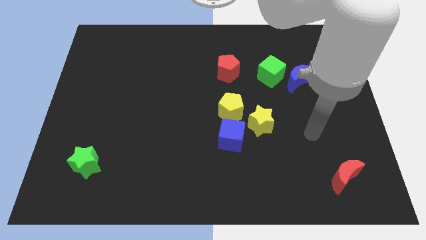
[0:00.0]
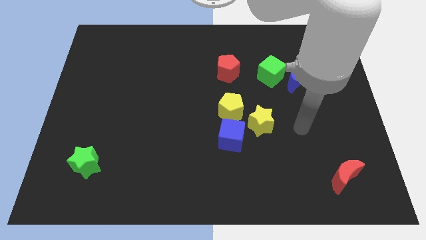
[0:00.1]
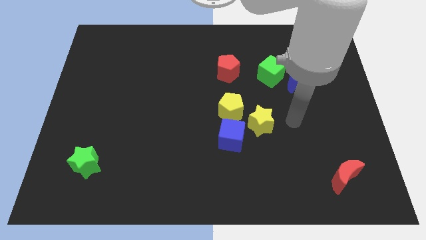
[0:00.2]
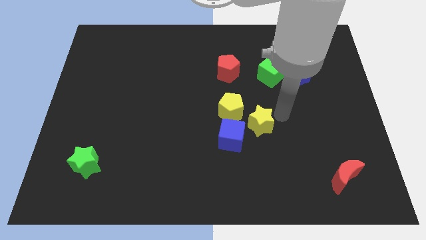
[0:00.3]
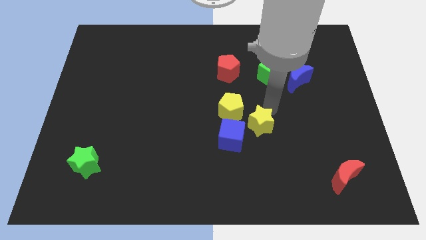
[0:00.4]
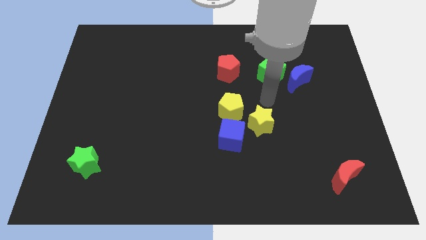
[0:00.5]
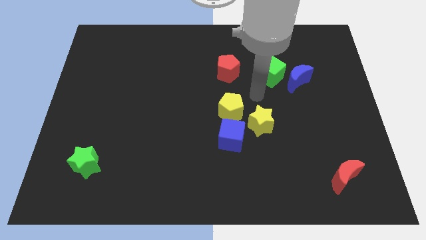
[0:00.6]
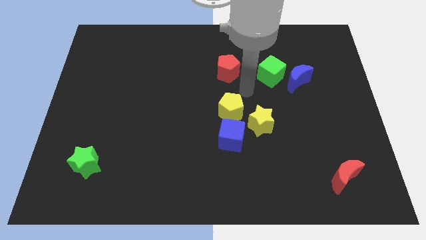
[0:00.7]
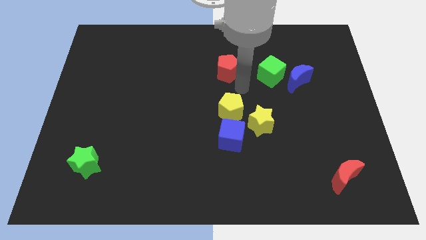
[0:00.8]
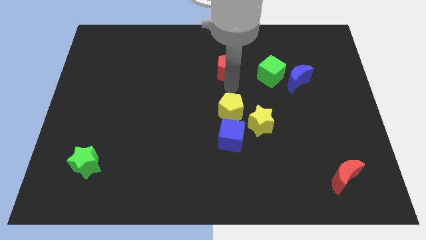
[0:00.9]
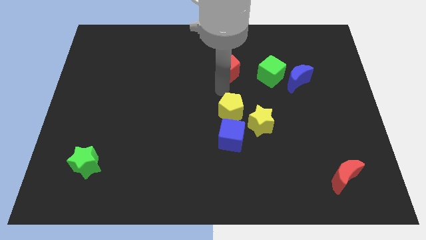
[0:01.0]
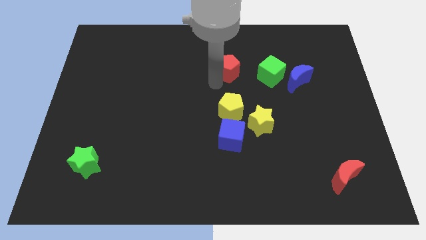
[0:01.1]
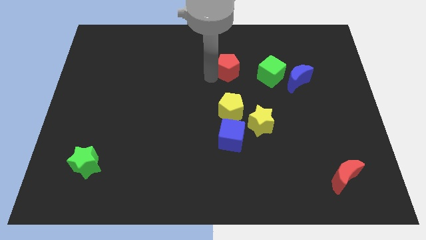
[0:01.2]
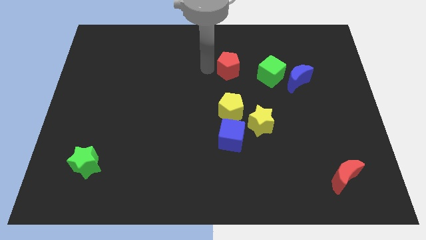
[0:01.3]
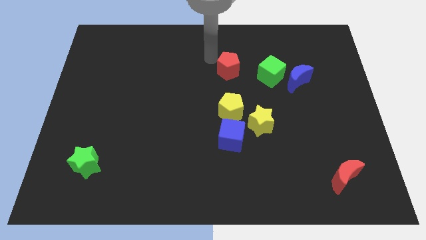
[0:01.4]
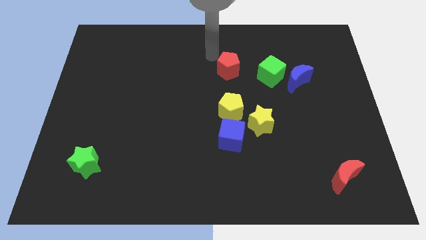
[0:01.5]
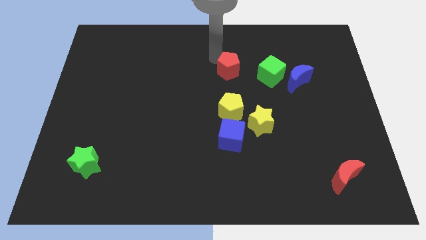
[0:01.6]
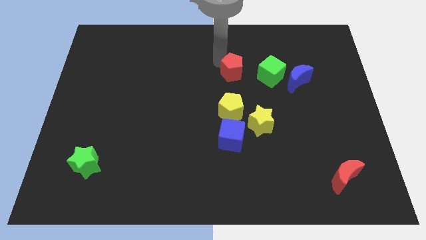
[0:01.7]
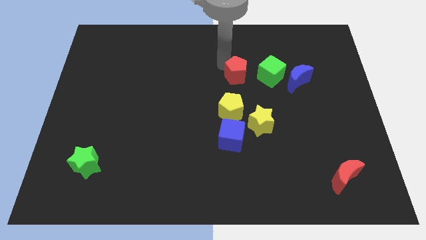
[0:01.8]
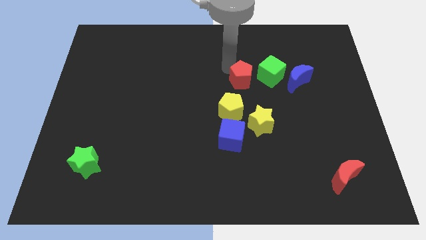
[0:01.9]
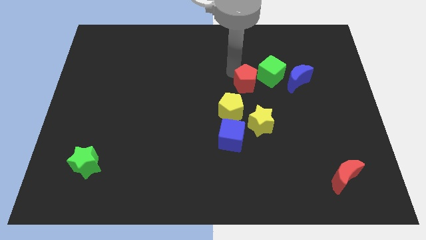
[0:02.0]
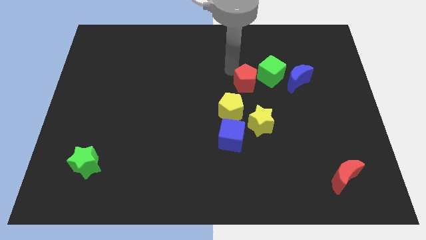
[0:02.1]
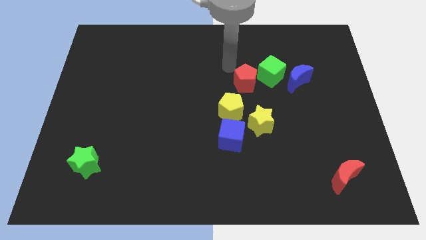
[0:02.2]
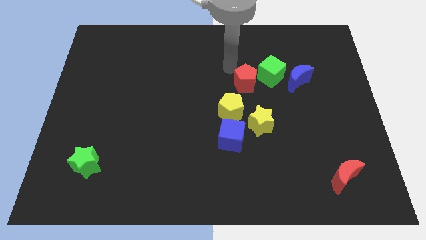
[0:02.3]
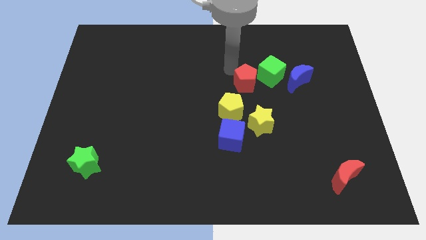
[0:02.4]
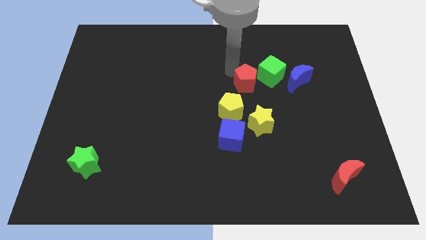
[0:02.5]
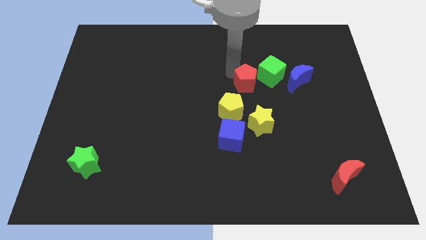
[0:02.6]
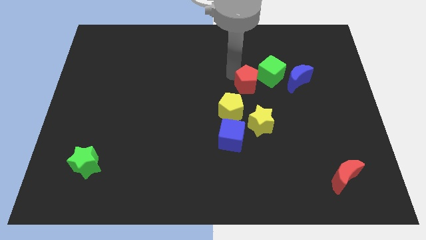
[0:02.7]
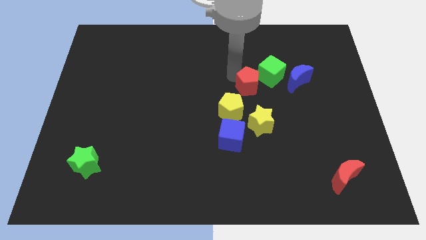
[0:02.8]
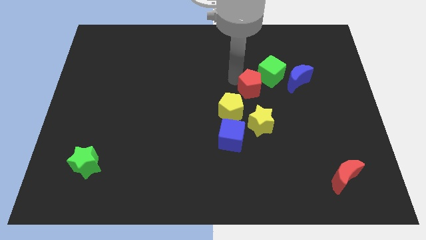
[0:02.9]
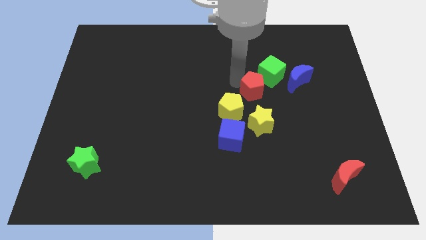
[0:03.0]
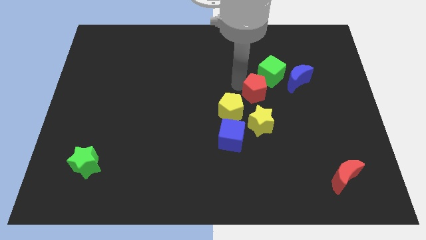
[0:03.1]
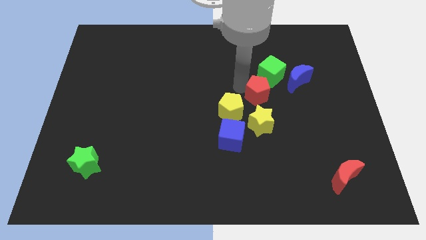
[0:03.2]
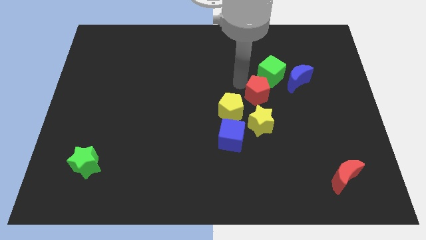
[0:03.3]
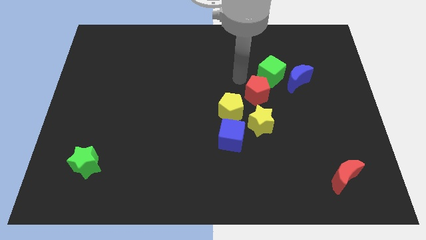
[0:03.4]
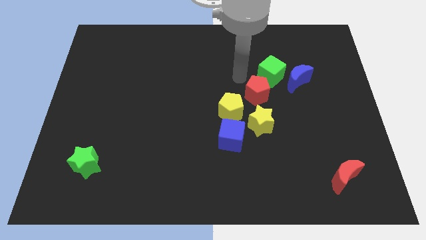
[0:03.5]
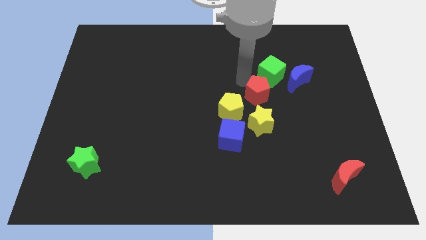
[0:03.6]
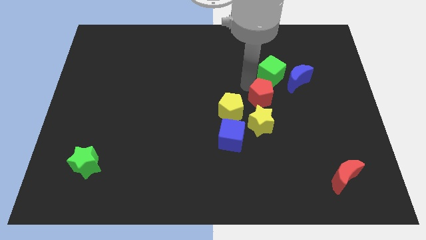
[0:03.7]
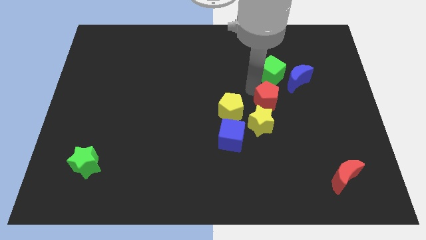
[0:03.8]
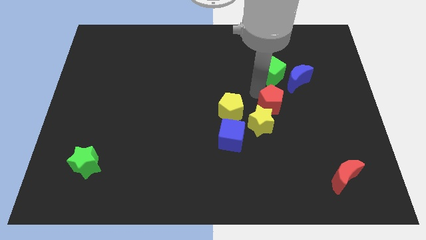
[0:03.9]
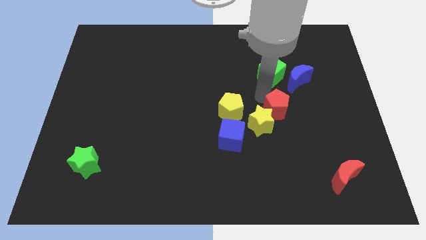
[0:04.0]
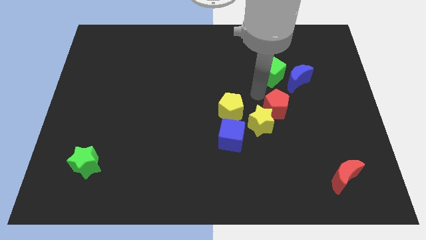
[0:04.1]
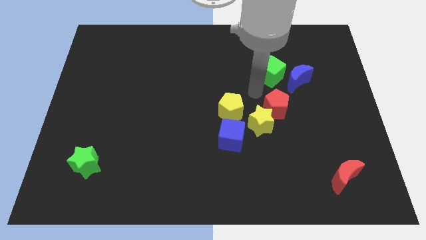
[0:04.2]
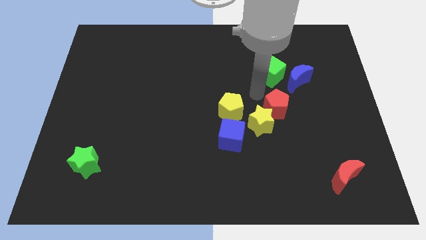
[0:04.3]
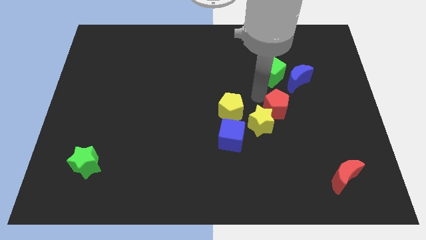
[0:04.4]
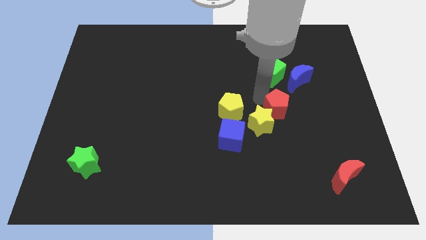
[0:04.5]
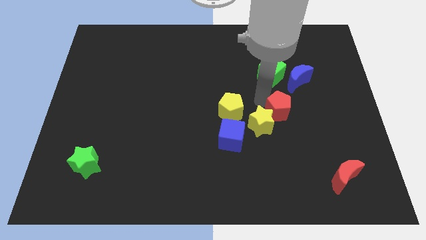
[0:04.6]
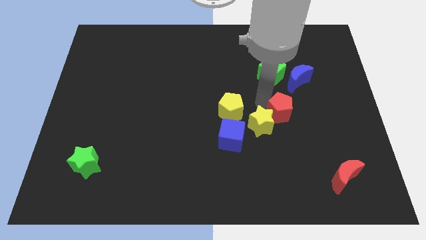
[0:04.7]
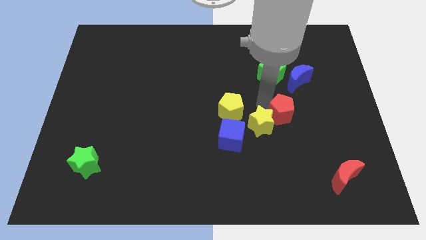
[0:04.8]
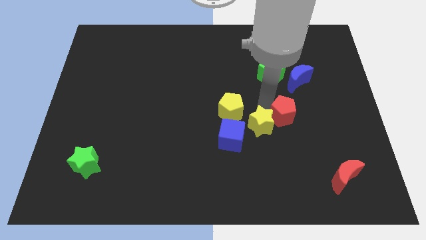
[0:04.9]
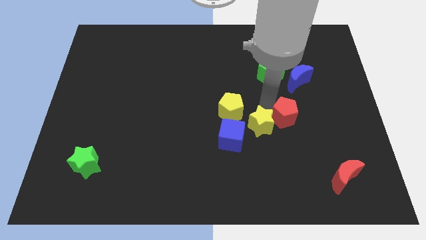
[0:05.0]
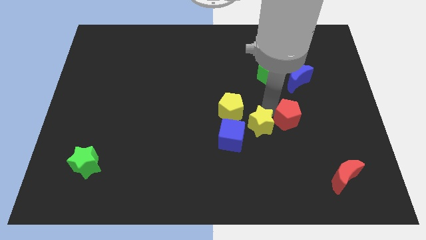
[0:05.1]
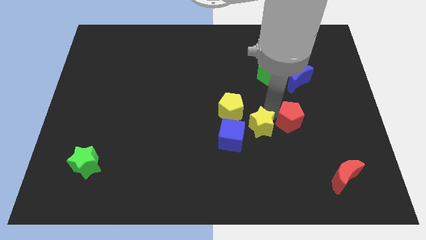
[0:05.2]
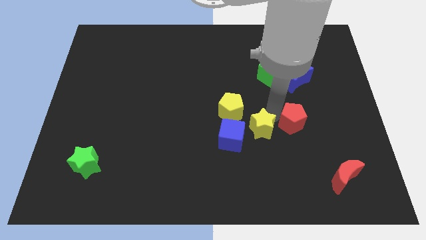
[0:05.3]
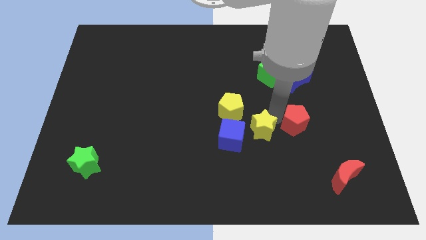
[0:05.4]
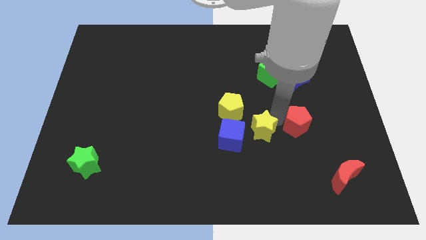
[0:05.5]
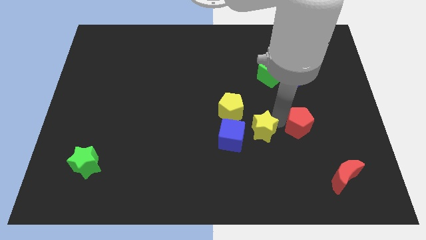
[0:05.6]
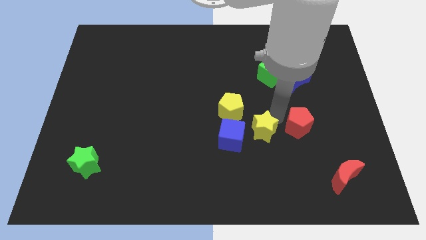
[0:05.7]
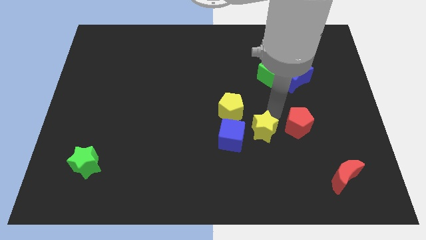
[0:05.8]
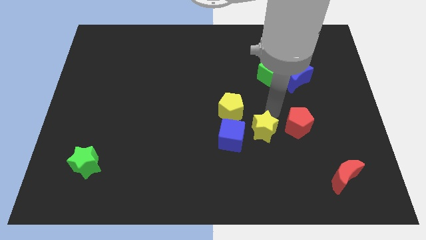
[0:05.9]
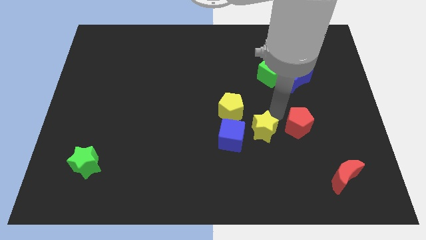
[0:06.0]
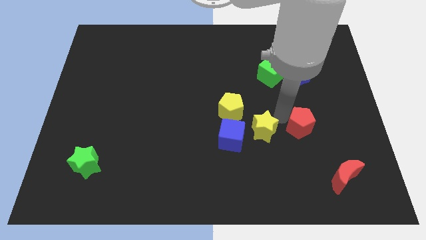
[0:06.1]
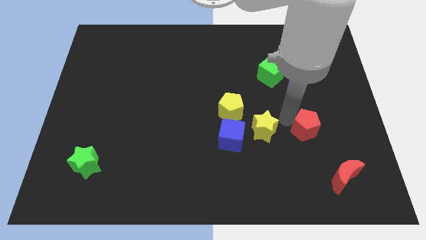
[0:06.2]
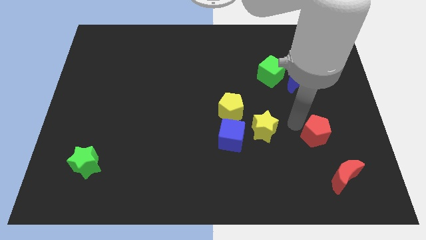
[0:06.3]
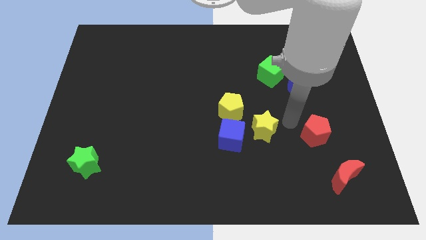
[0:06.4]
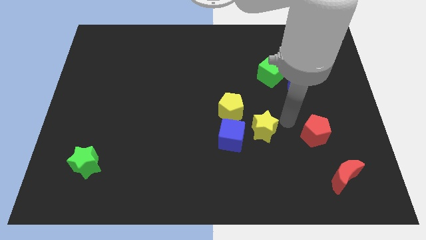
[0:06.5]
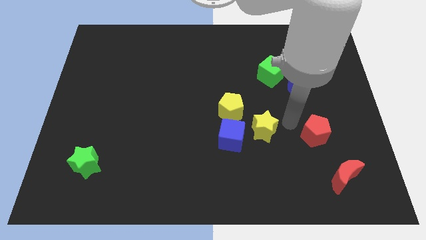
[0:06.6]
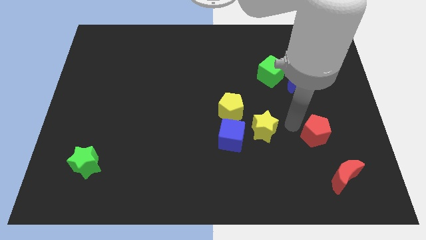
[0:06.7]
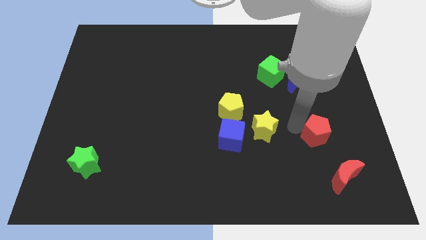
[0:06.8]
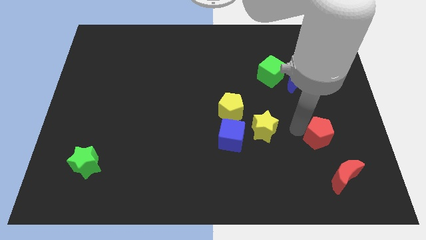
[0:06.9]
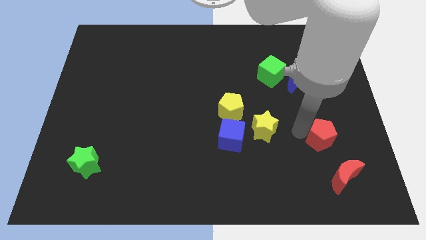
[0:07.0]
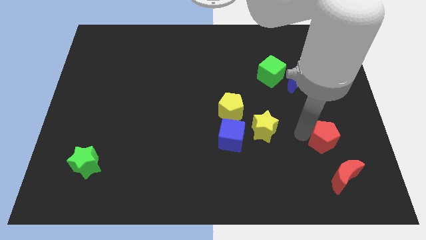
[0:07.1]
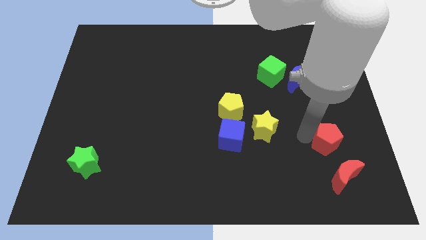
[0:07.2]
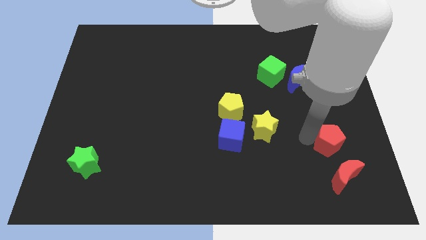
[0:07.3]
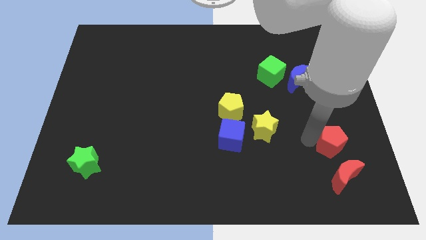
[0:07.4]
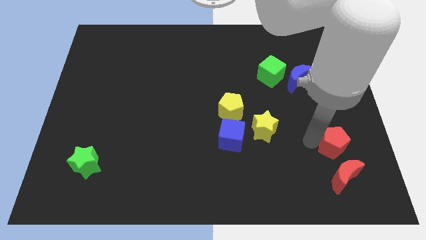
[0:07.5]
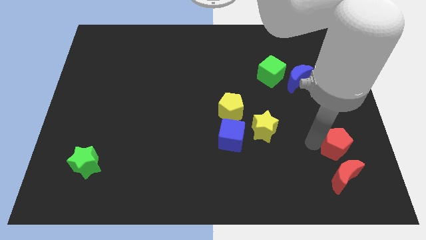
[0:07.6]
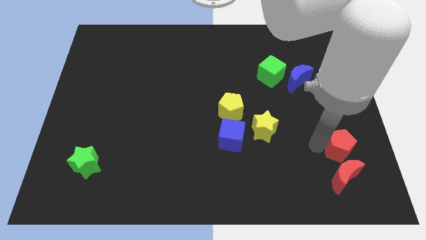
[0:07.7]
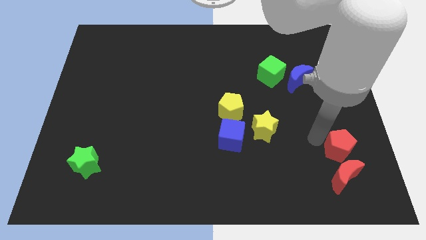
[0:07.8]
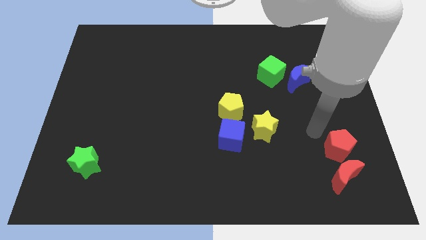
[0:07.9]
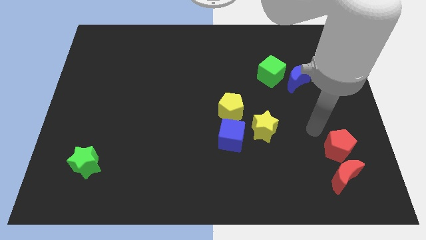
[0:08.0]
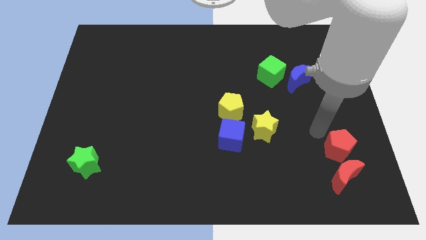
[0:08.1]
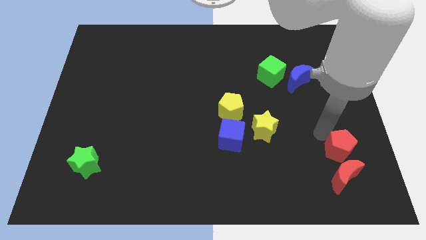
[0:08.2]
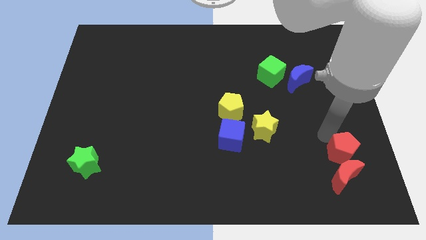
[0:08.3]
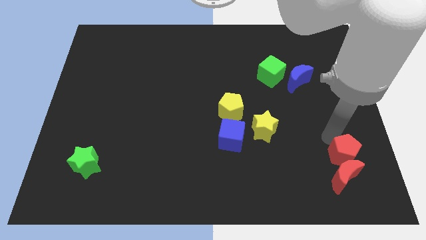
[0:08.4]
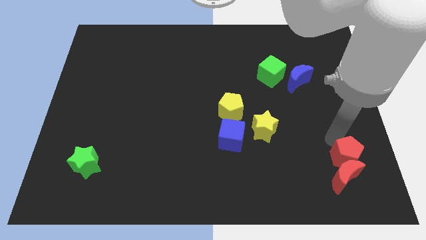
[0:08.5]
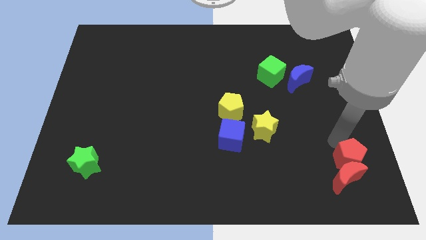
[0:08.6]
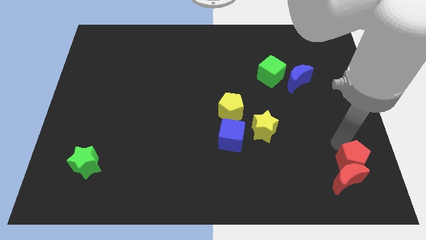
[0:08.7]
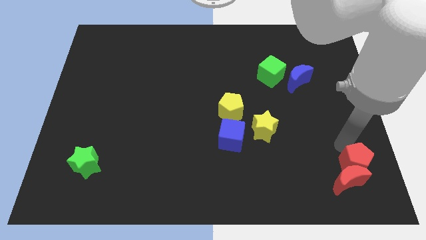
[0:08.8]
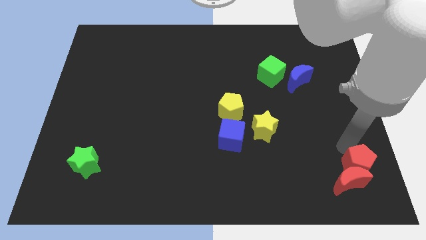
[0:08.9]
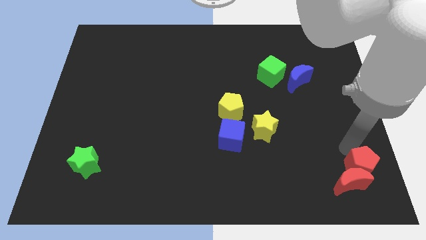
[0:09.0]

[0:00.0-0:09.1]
move the red pentagon to the lower right corner
